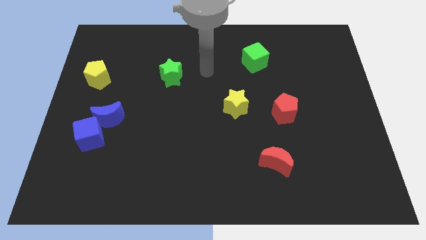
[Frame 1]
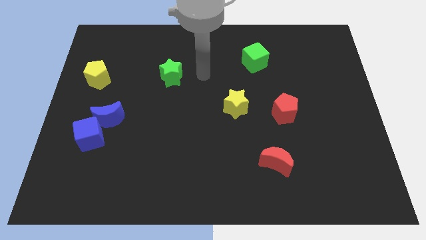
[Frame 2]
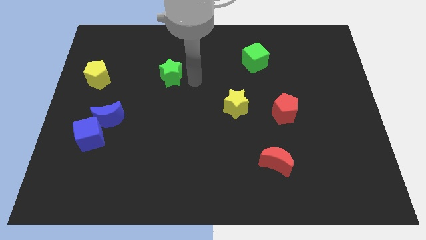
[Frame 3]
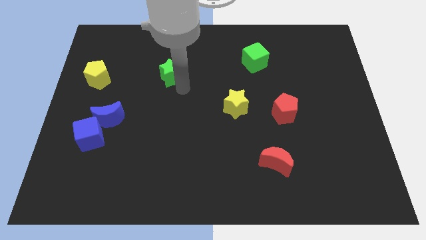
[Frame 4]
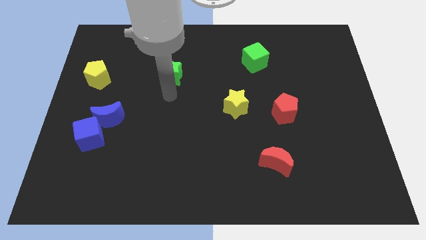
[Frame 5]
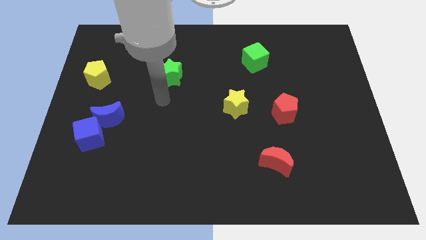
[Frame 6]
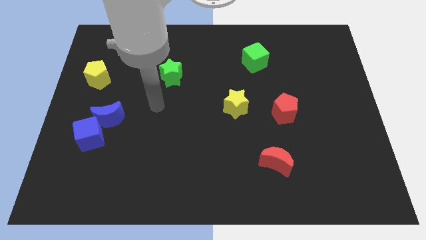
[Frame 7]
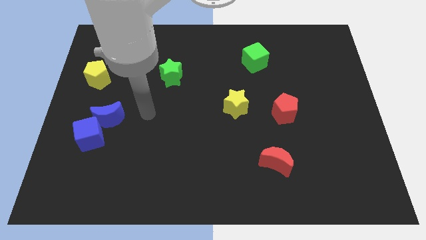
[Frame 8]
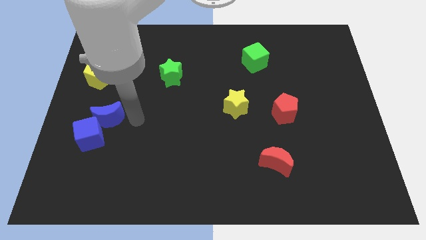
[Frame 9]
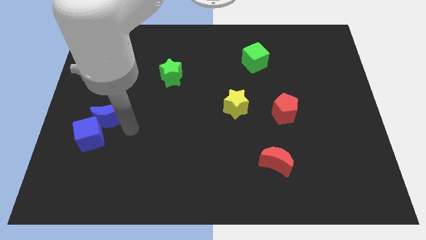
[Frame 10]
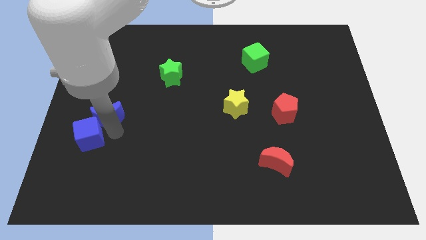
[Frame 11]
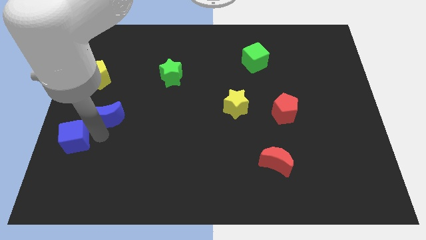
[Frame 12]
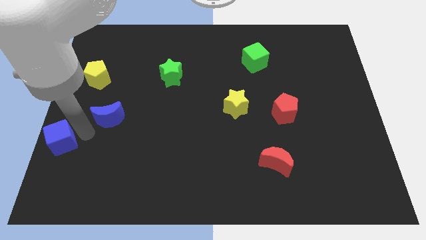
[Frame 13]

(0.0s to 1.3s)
pull the blue moon apart from the blue cube

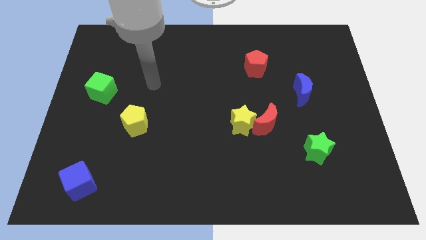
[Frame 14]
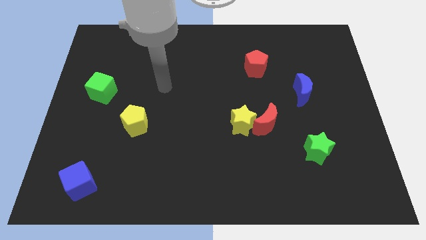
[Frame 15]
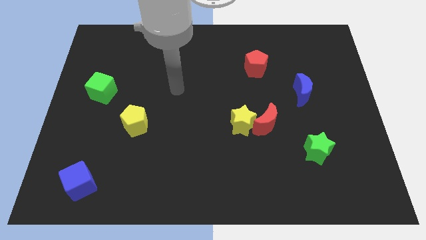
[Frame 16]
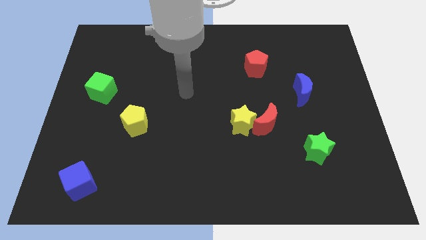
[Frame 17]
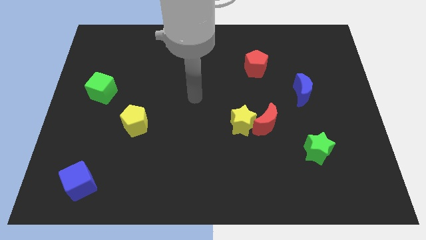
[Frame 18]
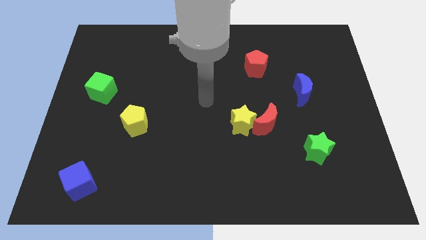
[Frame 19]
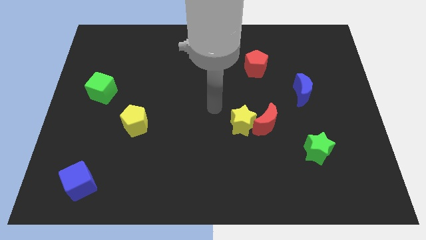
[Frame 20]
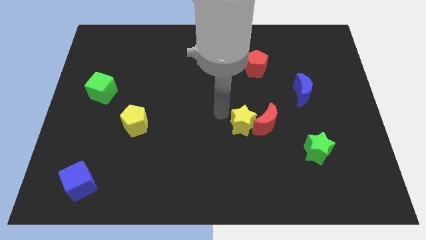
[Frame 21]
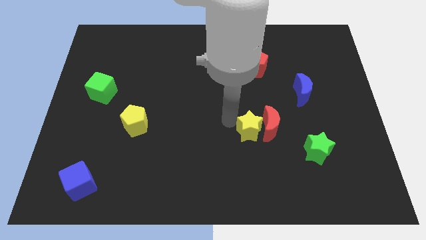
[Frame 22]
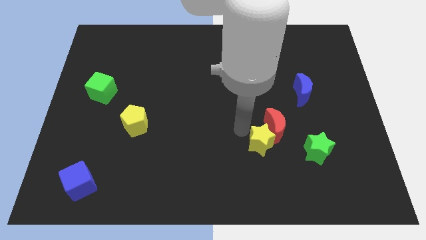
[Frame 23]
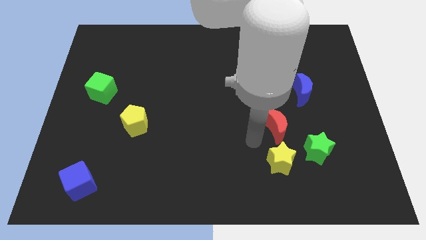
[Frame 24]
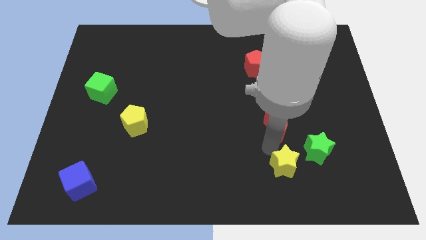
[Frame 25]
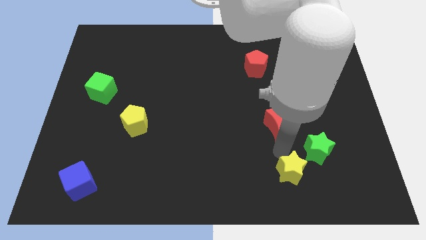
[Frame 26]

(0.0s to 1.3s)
pull the red moon apart from the yellow star

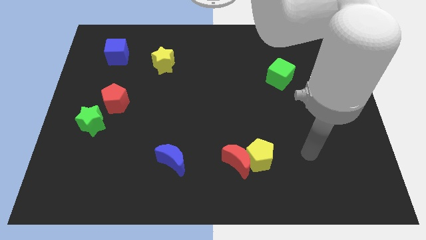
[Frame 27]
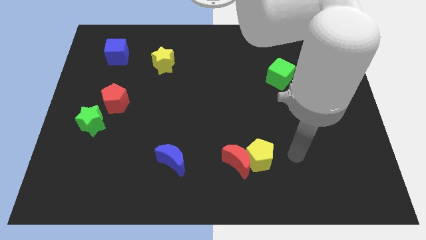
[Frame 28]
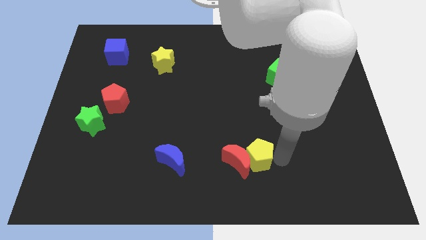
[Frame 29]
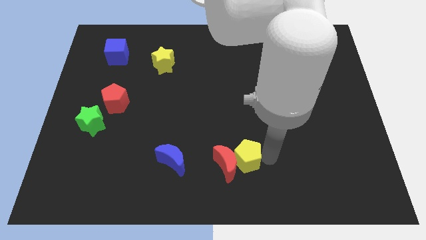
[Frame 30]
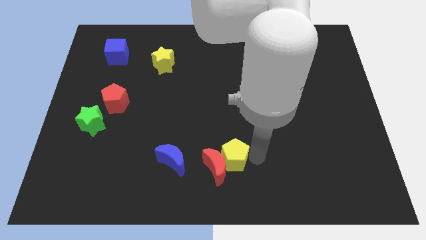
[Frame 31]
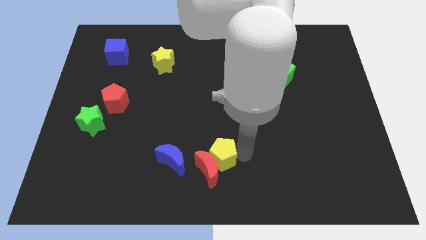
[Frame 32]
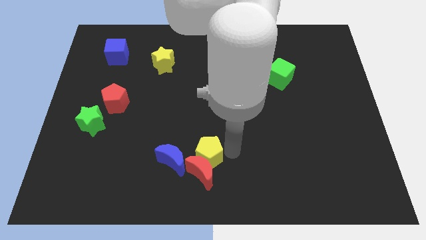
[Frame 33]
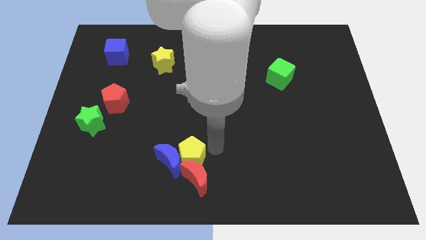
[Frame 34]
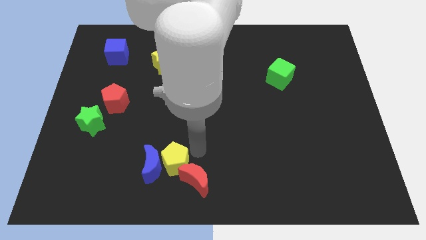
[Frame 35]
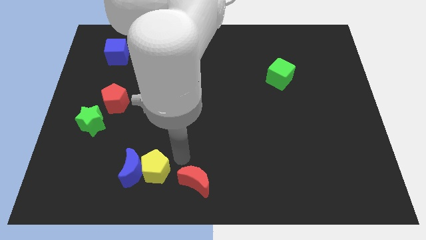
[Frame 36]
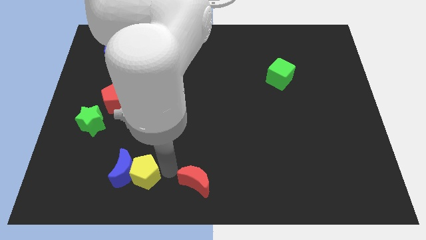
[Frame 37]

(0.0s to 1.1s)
pull the red moon apart from the yellow pentagon

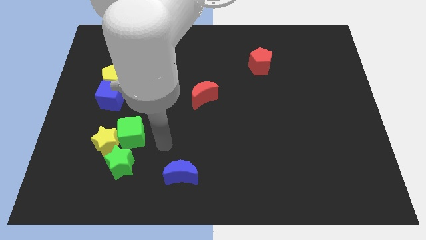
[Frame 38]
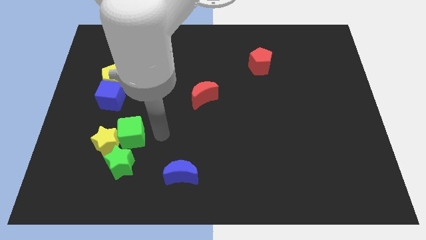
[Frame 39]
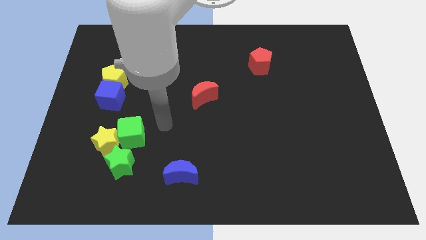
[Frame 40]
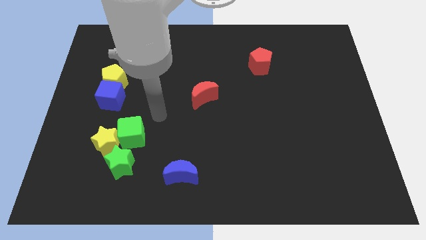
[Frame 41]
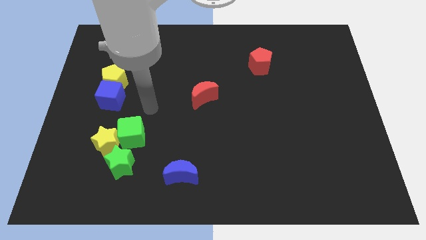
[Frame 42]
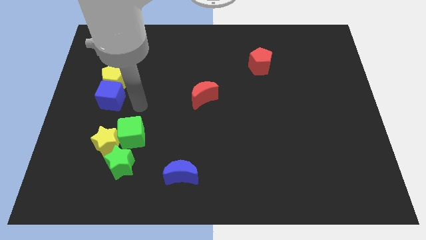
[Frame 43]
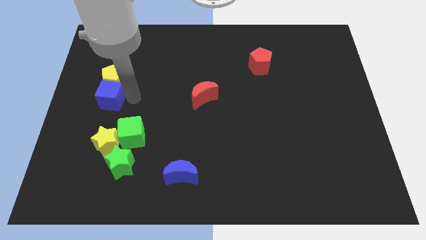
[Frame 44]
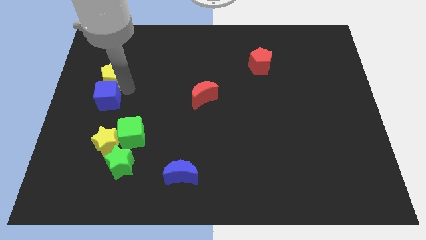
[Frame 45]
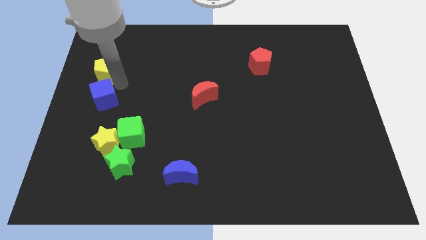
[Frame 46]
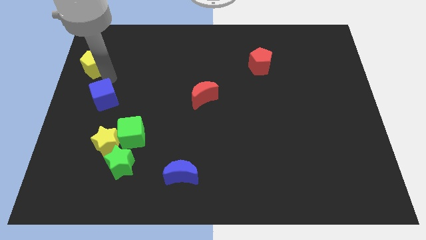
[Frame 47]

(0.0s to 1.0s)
pull the blue cube apart from the yellow pentagon

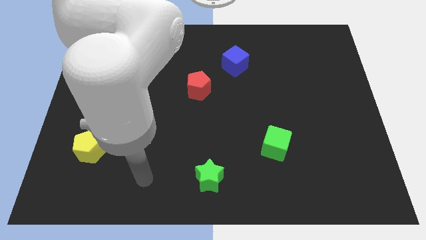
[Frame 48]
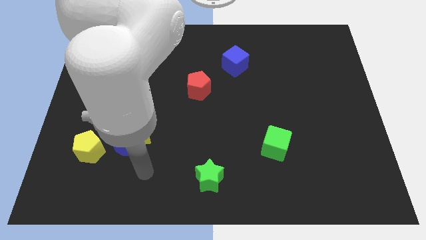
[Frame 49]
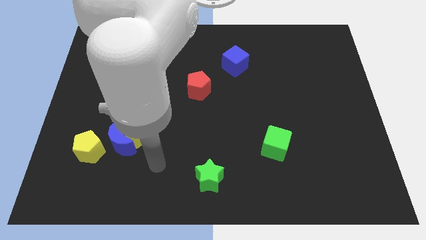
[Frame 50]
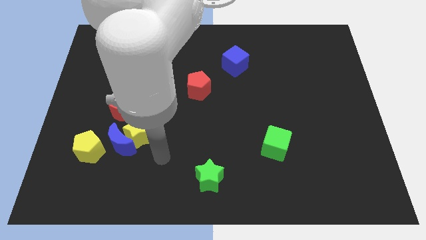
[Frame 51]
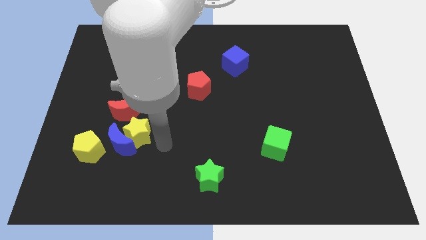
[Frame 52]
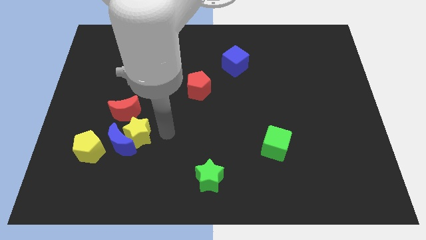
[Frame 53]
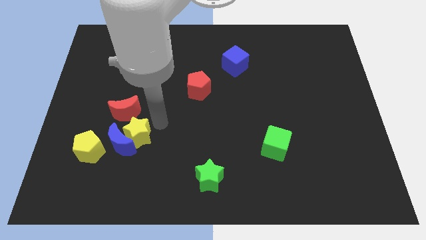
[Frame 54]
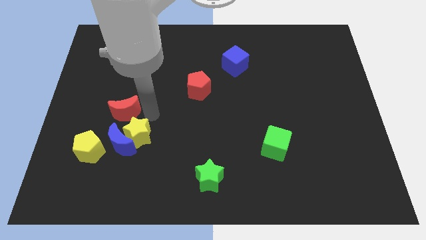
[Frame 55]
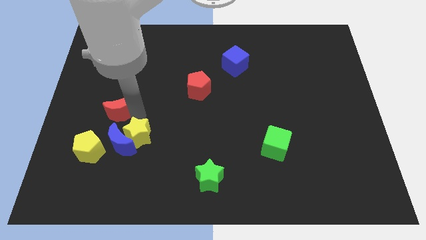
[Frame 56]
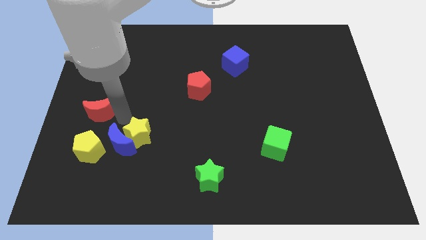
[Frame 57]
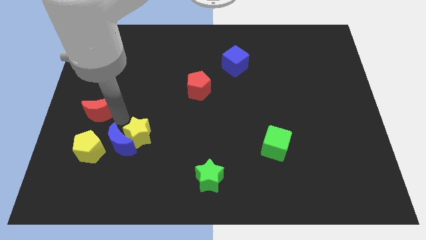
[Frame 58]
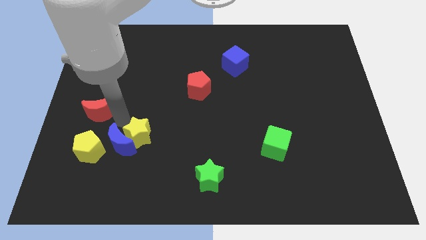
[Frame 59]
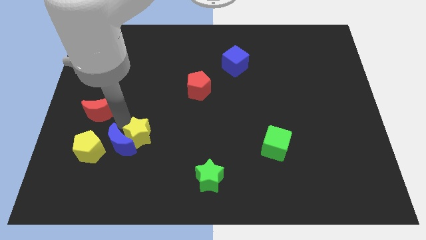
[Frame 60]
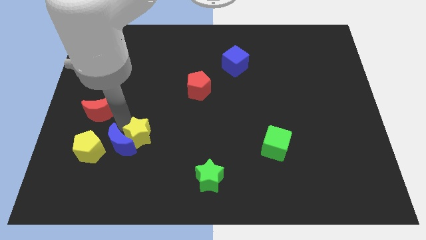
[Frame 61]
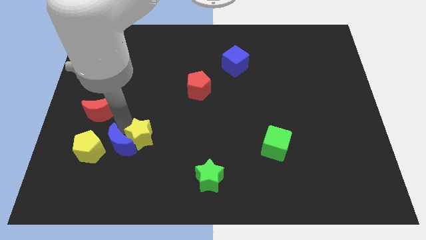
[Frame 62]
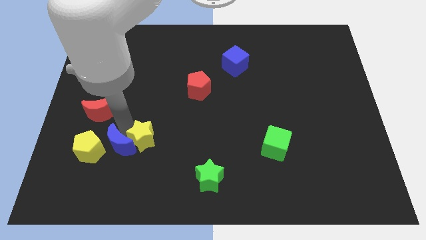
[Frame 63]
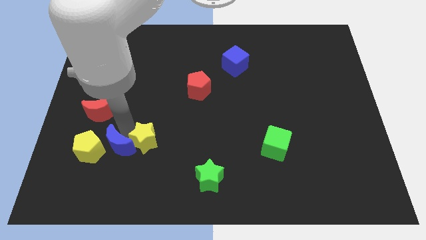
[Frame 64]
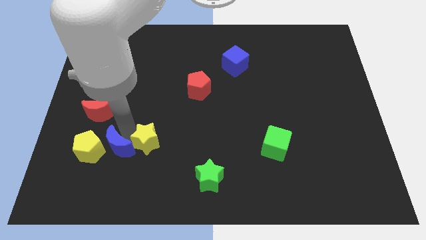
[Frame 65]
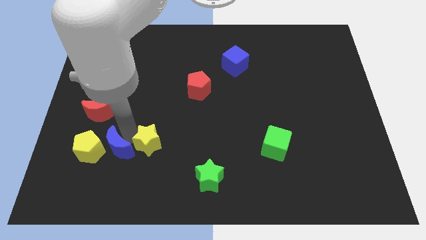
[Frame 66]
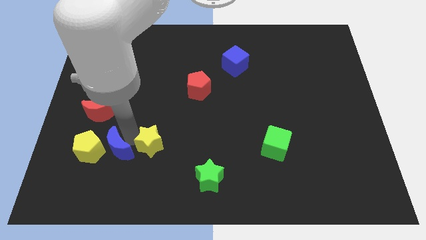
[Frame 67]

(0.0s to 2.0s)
pull the yellow star apart from the blue moon and red moon

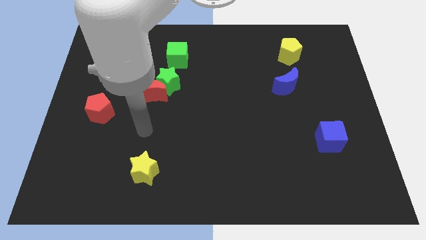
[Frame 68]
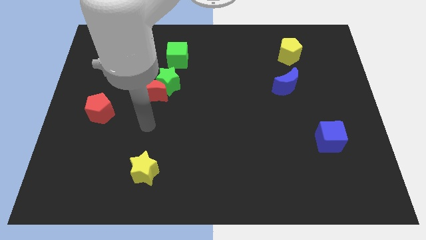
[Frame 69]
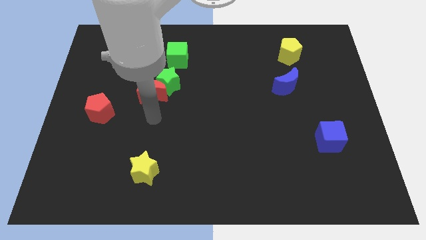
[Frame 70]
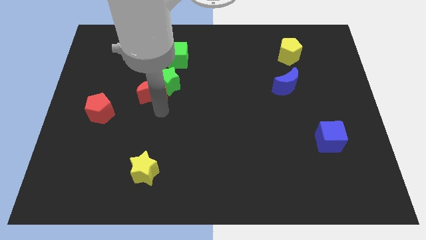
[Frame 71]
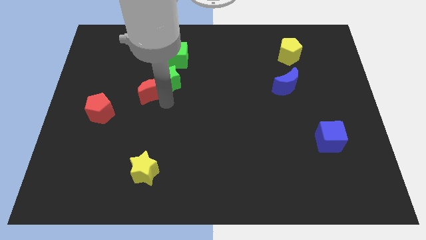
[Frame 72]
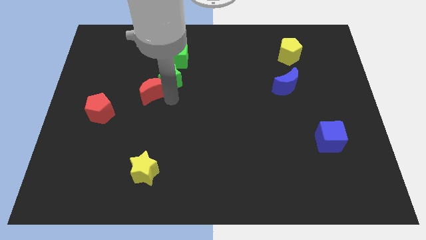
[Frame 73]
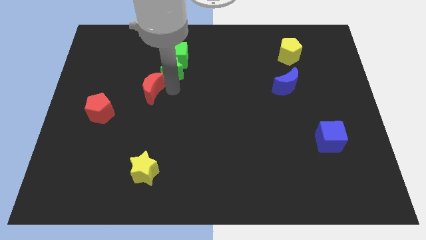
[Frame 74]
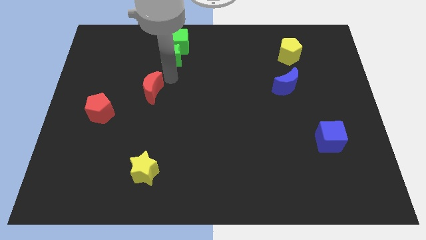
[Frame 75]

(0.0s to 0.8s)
move the red moon away from the green star

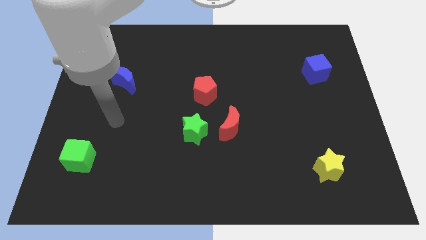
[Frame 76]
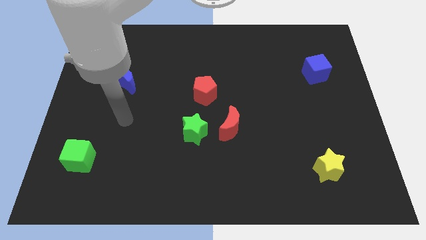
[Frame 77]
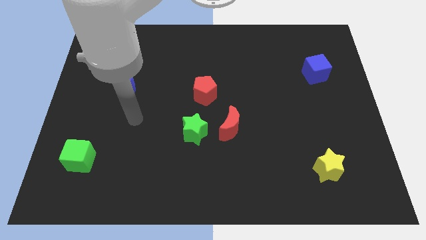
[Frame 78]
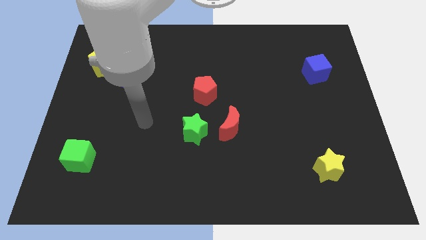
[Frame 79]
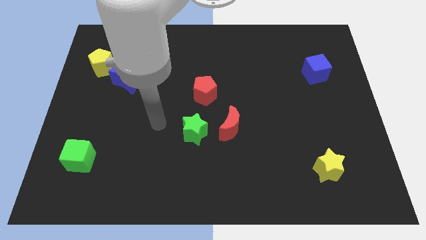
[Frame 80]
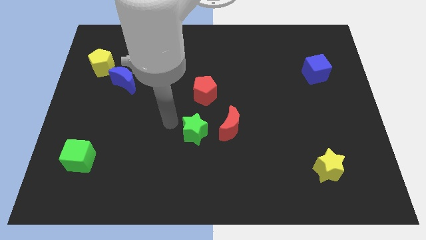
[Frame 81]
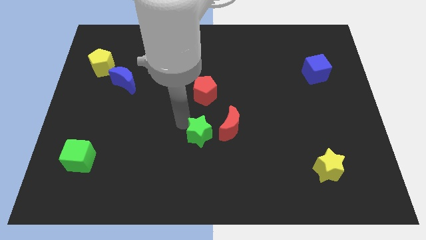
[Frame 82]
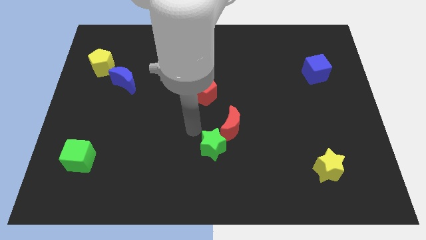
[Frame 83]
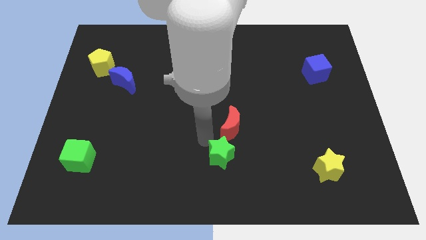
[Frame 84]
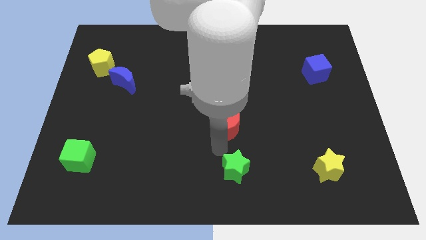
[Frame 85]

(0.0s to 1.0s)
pull the red moon apart from the green star

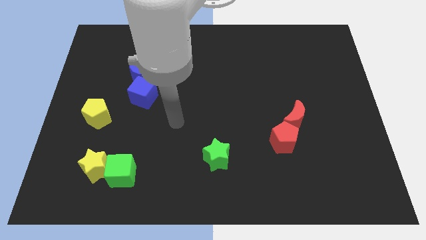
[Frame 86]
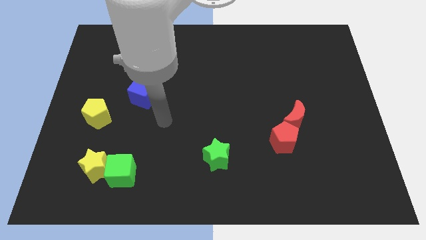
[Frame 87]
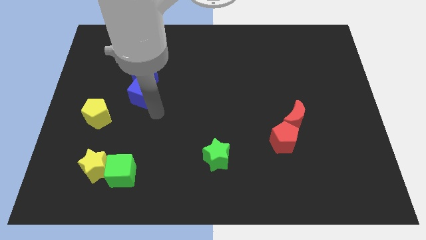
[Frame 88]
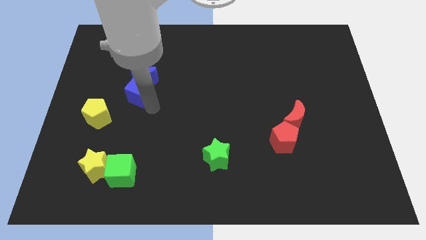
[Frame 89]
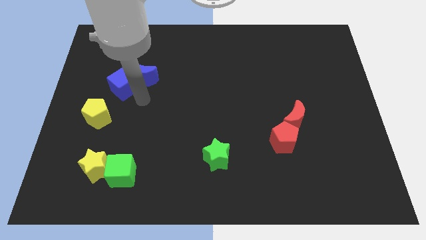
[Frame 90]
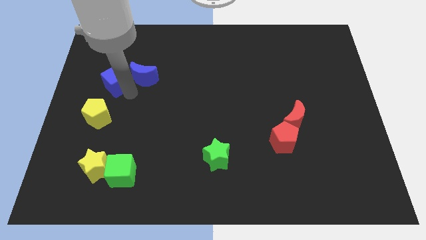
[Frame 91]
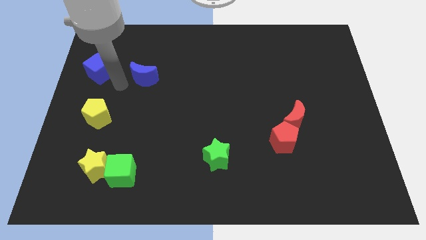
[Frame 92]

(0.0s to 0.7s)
move the blue moon away from the blue cube

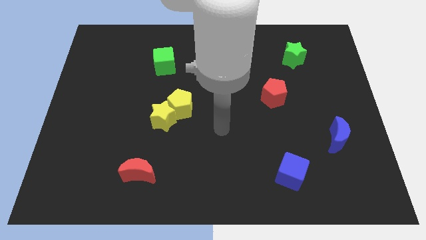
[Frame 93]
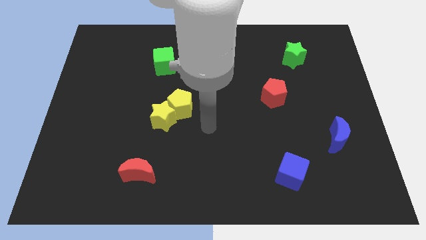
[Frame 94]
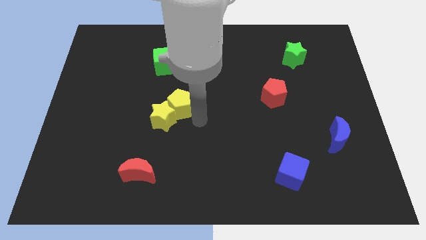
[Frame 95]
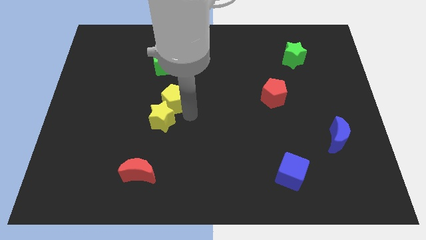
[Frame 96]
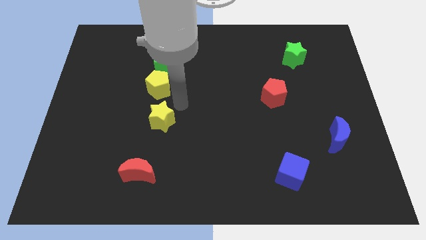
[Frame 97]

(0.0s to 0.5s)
pull the yellow star apart from the yellow pentagon
